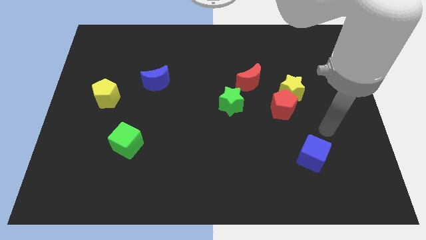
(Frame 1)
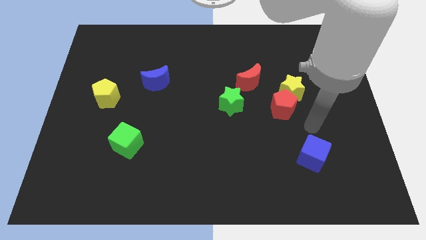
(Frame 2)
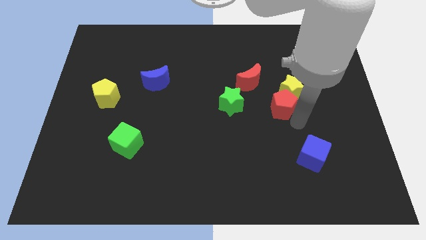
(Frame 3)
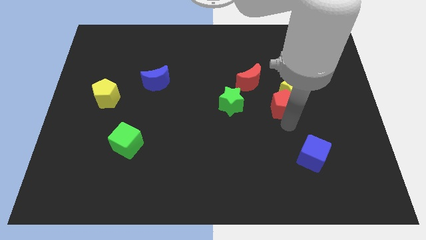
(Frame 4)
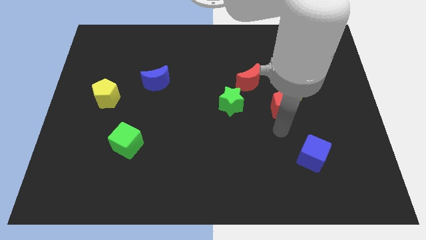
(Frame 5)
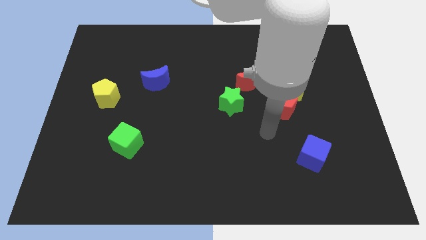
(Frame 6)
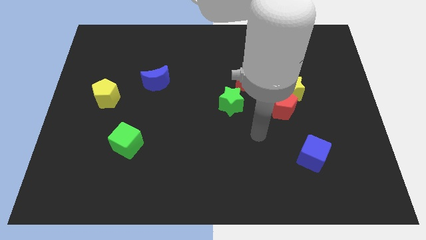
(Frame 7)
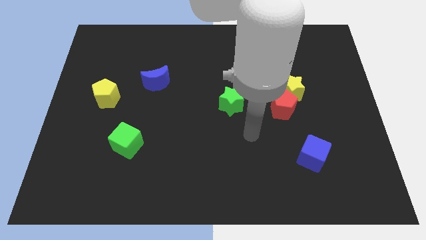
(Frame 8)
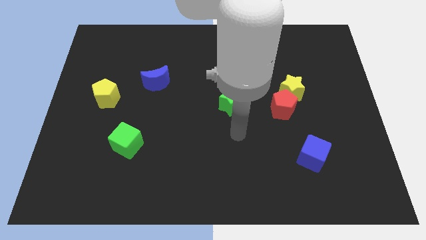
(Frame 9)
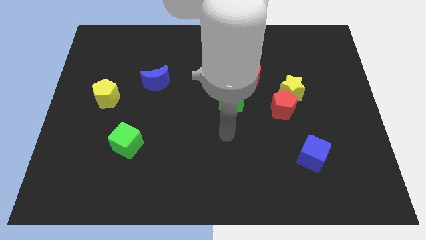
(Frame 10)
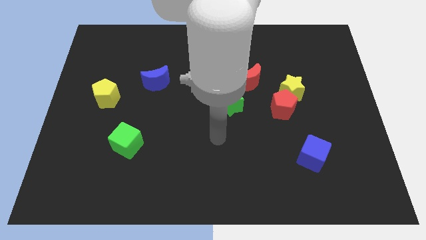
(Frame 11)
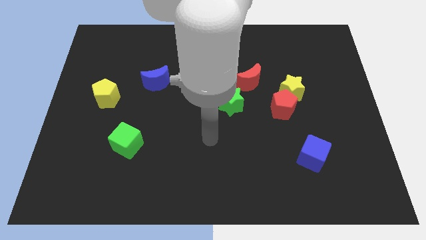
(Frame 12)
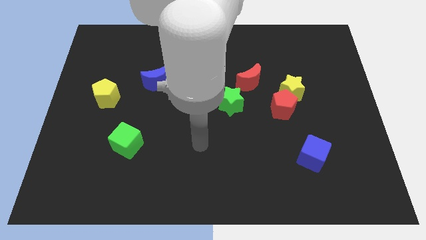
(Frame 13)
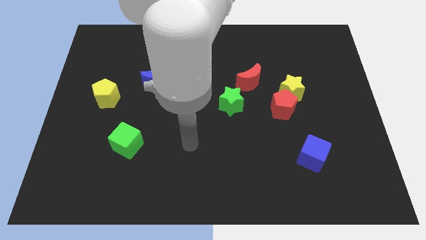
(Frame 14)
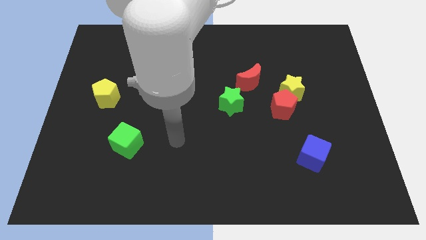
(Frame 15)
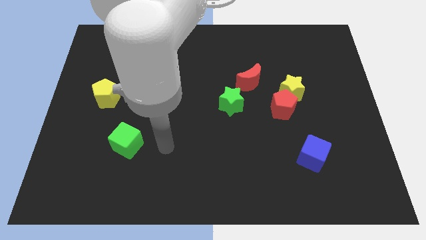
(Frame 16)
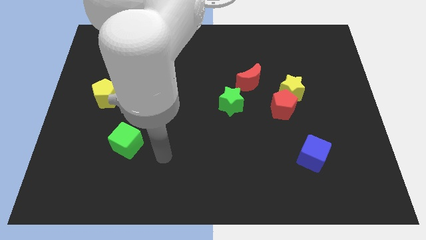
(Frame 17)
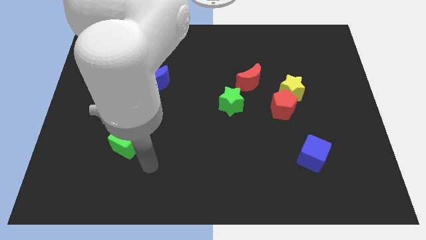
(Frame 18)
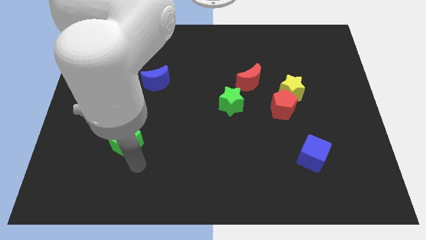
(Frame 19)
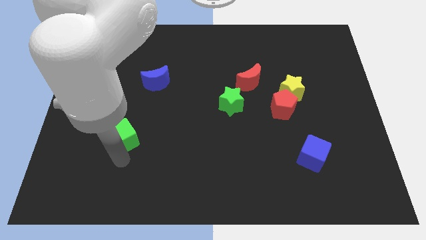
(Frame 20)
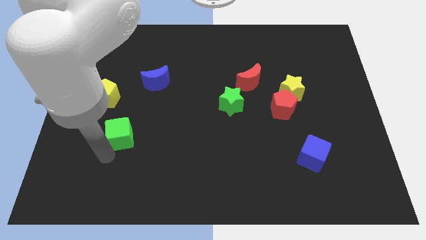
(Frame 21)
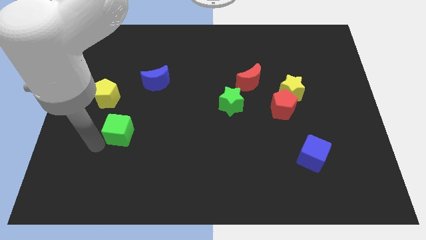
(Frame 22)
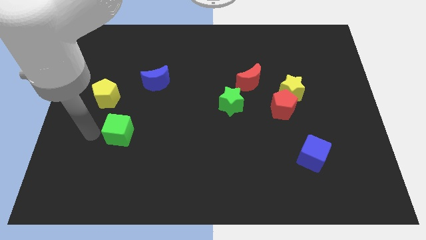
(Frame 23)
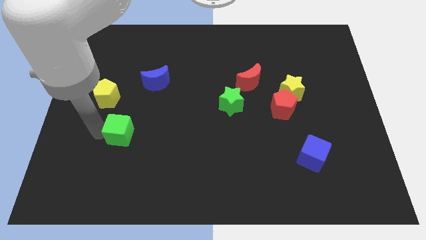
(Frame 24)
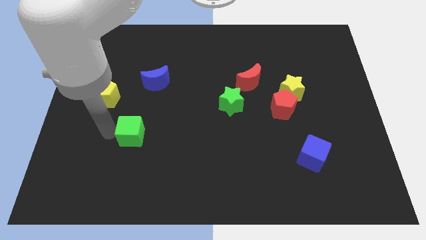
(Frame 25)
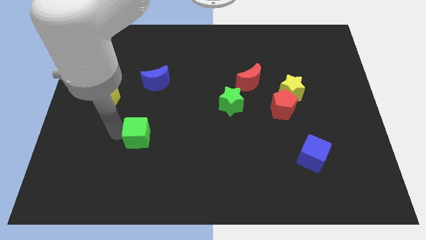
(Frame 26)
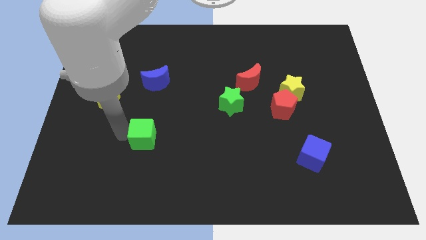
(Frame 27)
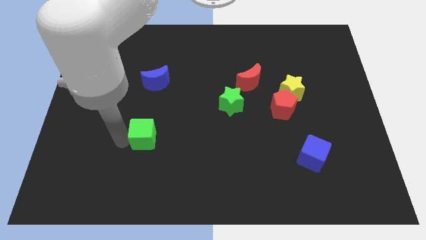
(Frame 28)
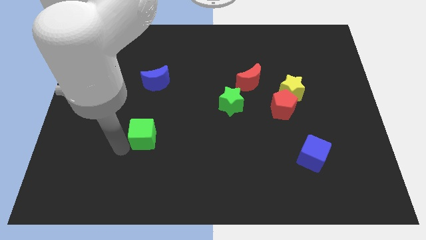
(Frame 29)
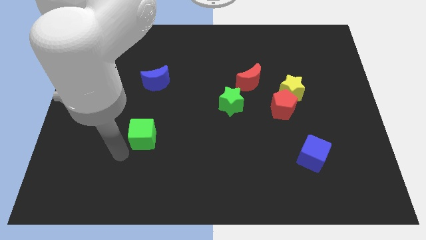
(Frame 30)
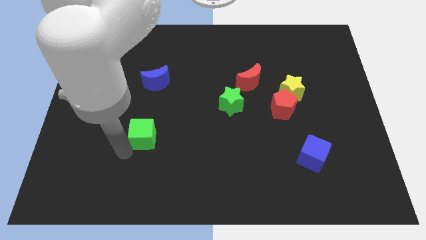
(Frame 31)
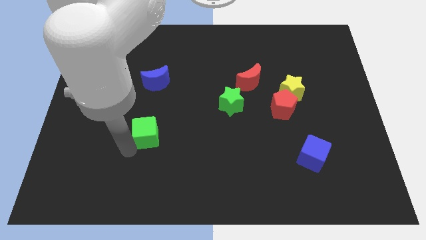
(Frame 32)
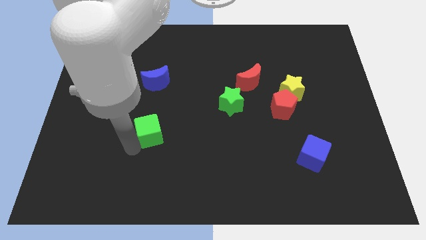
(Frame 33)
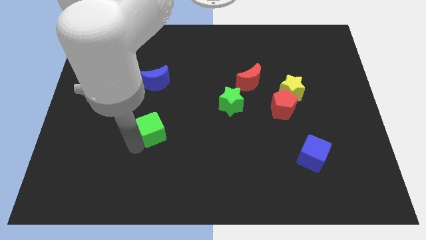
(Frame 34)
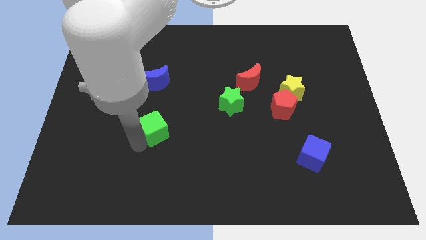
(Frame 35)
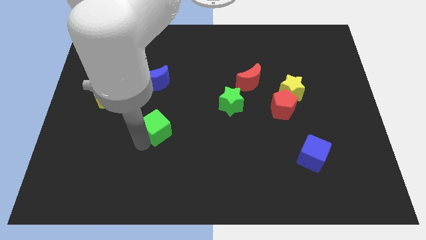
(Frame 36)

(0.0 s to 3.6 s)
move the green cube upwards and then right somewhat

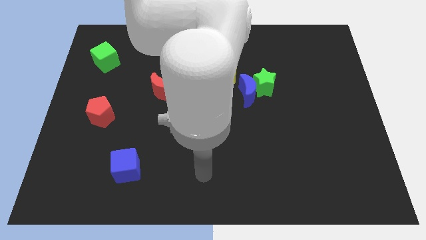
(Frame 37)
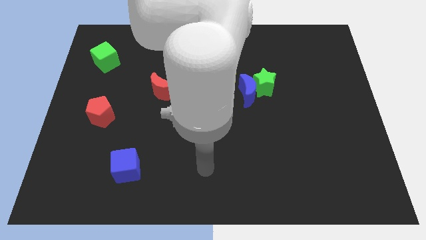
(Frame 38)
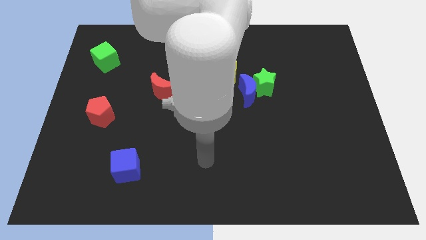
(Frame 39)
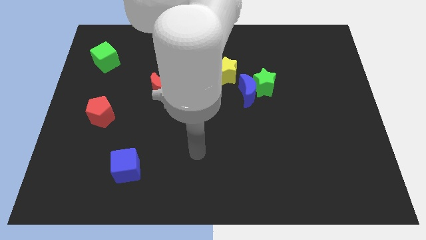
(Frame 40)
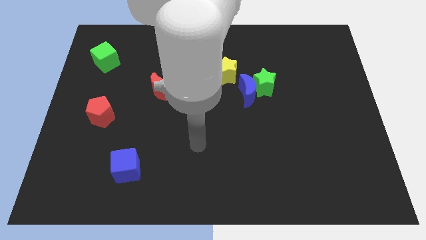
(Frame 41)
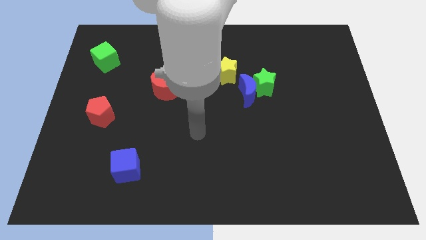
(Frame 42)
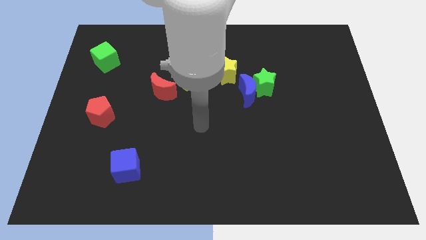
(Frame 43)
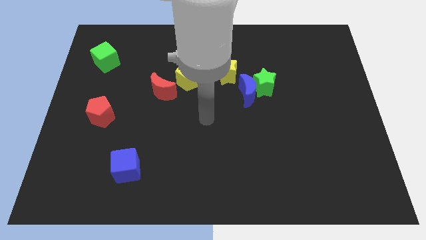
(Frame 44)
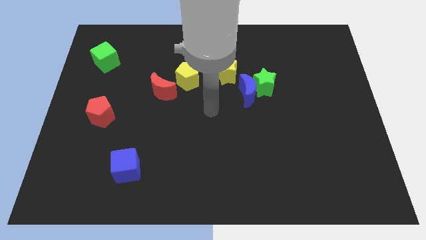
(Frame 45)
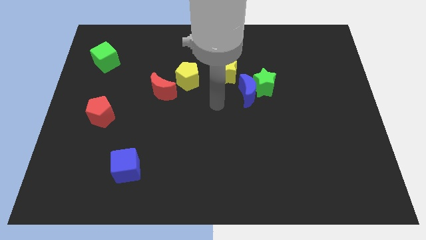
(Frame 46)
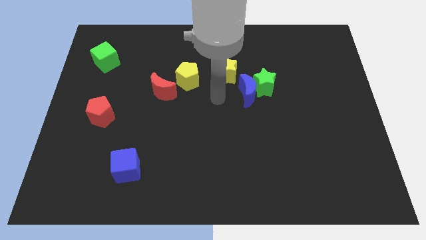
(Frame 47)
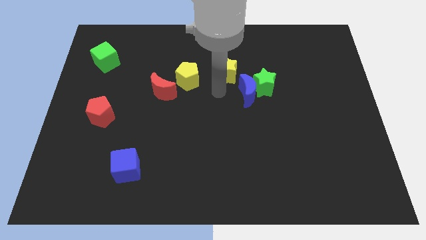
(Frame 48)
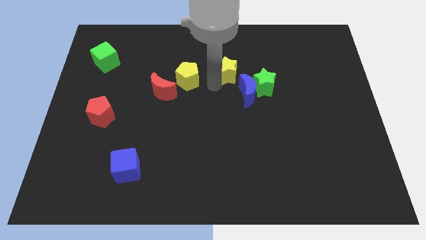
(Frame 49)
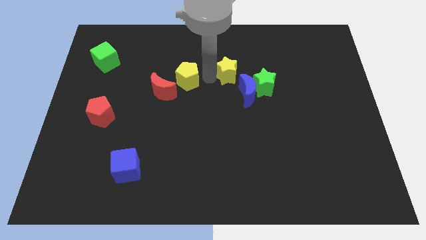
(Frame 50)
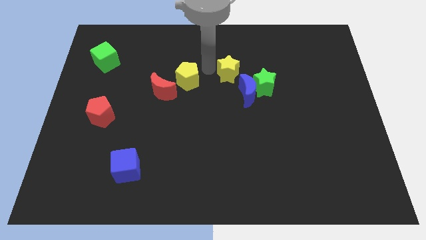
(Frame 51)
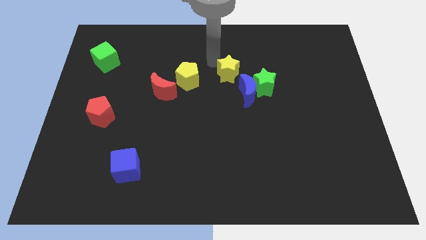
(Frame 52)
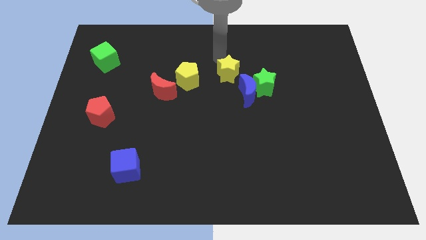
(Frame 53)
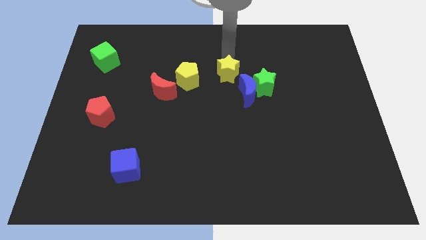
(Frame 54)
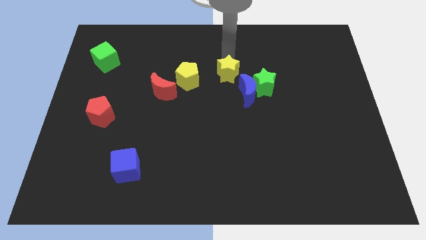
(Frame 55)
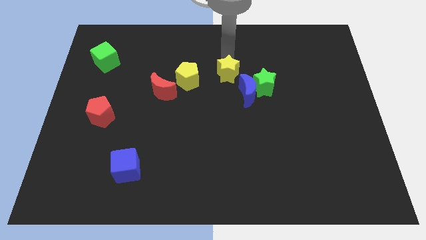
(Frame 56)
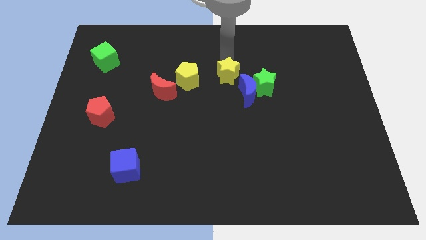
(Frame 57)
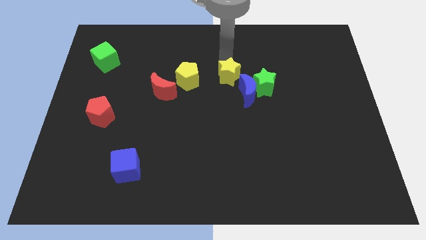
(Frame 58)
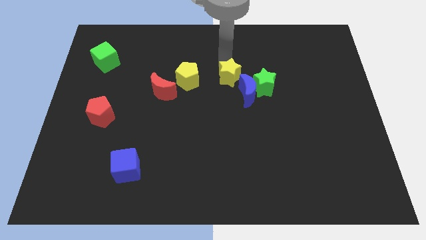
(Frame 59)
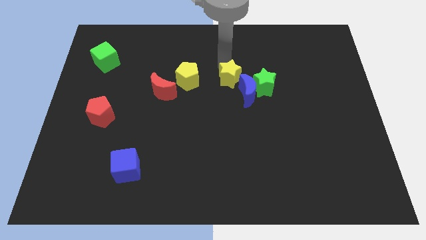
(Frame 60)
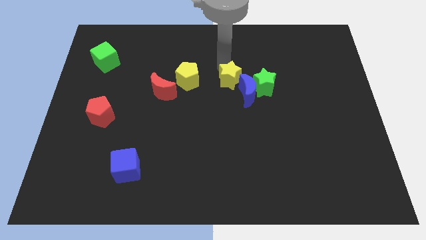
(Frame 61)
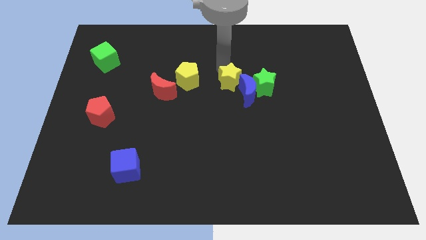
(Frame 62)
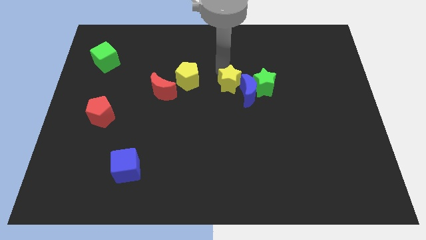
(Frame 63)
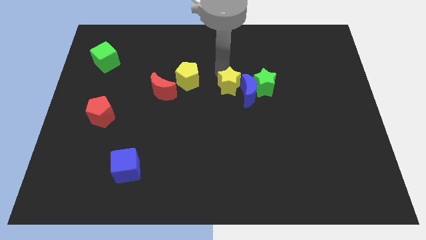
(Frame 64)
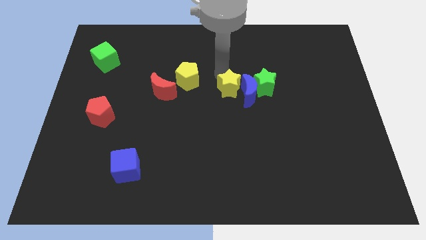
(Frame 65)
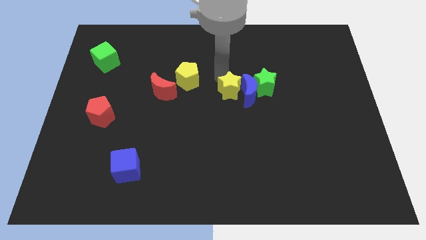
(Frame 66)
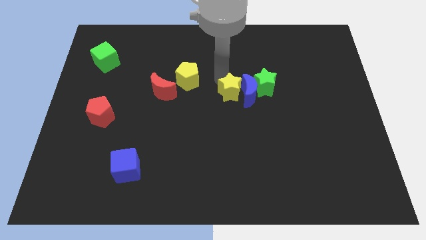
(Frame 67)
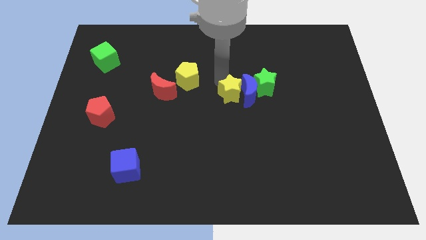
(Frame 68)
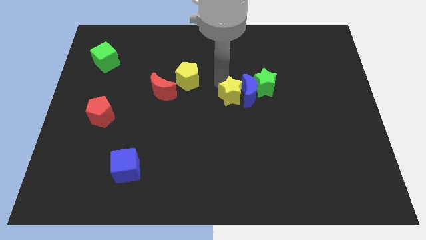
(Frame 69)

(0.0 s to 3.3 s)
slightly push the yellow star down

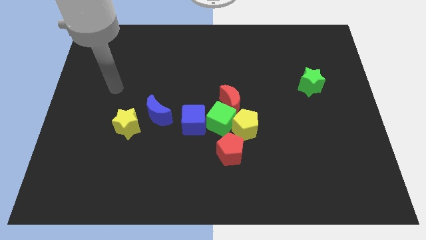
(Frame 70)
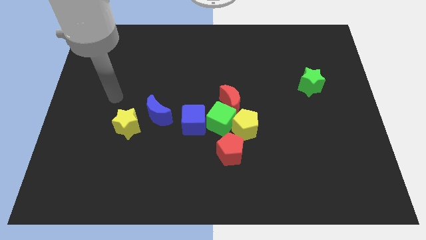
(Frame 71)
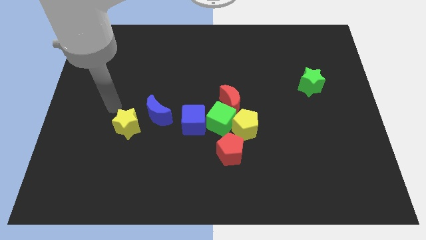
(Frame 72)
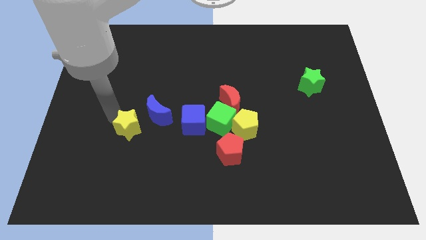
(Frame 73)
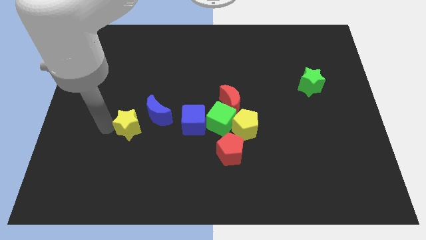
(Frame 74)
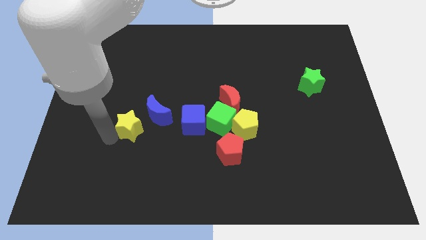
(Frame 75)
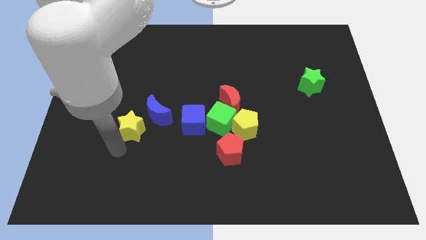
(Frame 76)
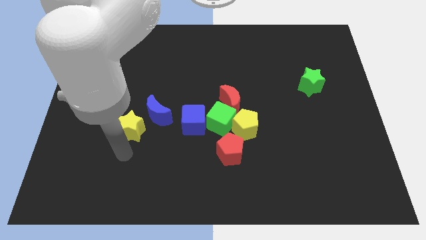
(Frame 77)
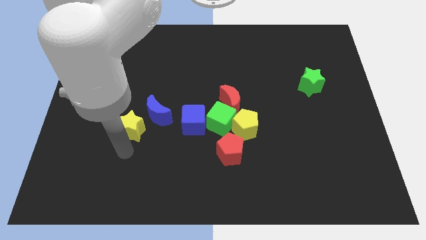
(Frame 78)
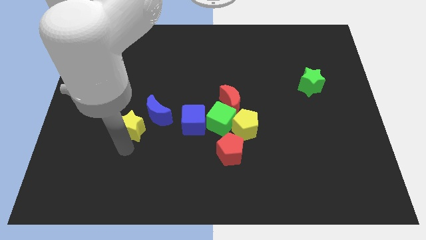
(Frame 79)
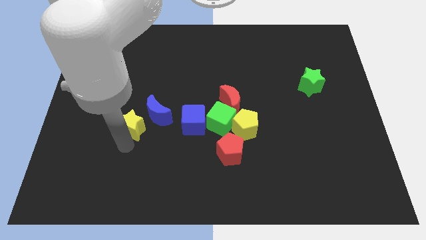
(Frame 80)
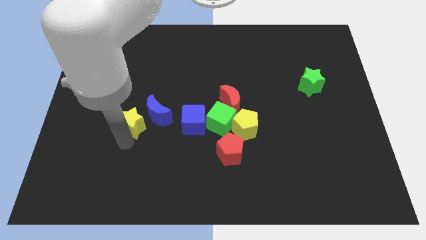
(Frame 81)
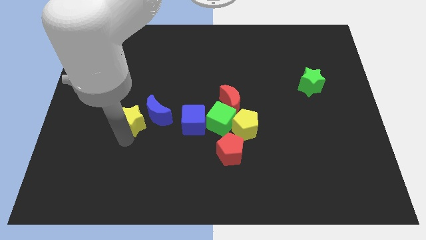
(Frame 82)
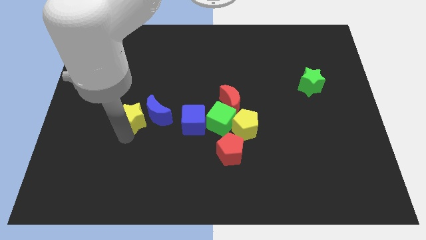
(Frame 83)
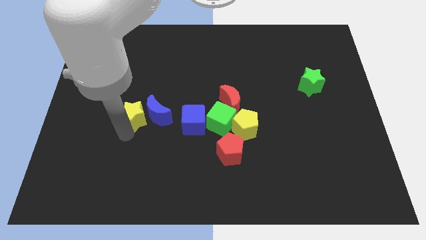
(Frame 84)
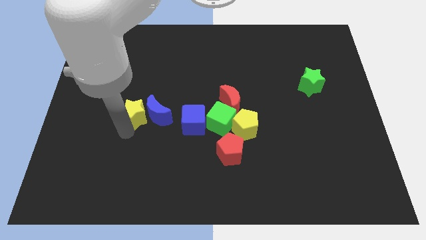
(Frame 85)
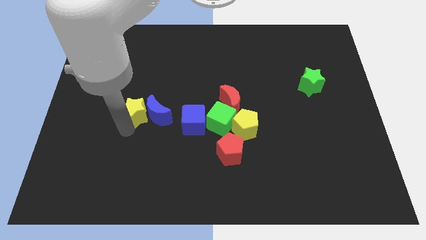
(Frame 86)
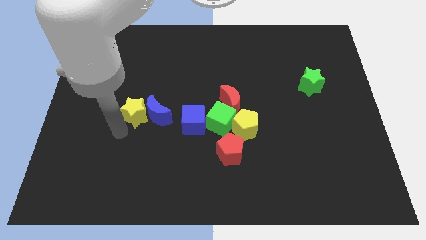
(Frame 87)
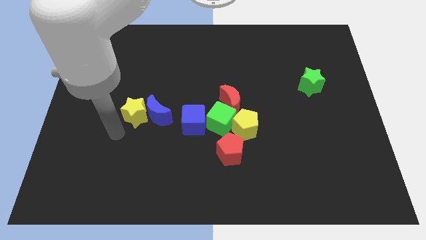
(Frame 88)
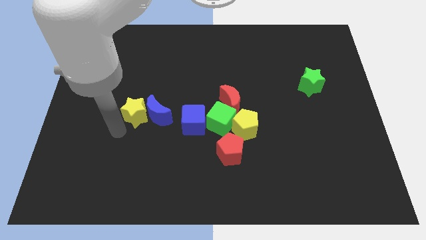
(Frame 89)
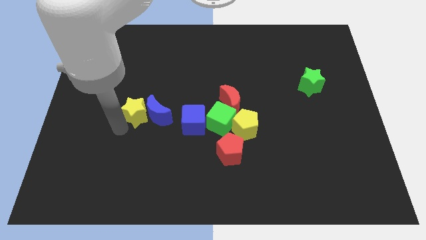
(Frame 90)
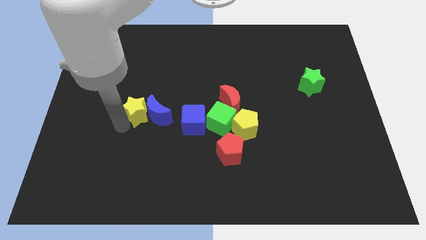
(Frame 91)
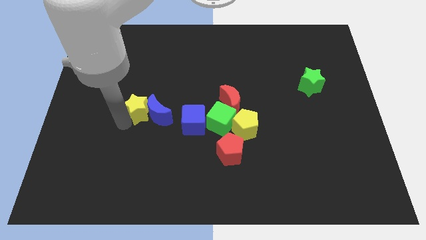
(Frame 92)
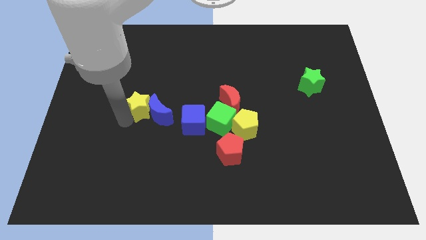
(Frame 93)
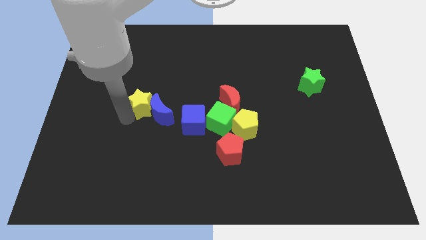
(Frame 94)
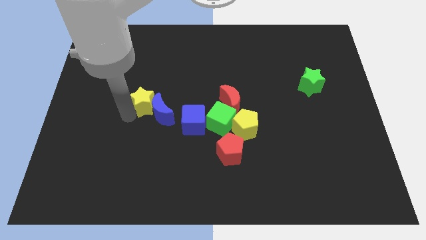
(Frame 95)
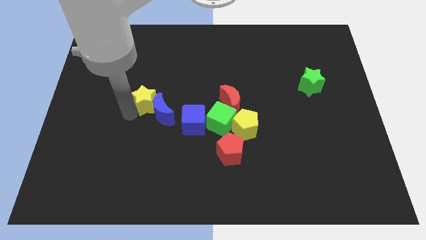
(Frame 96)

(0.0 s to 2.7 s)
slide the yellow star a little upwards and right diagonally
